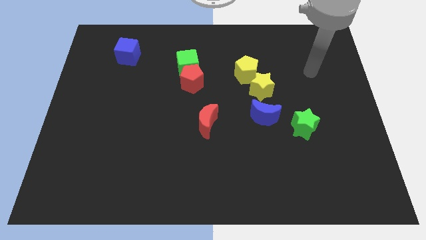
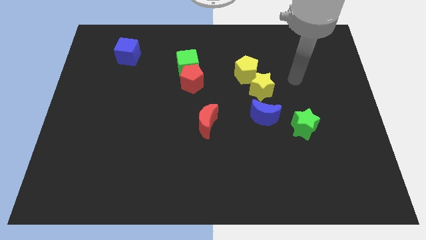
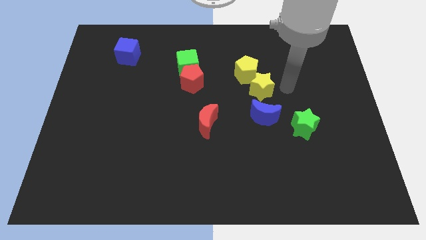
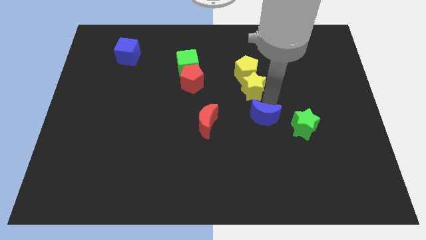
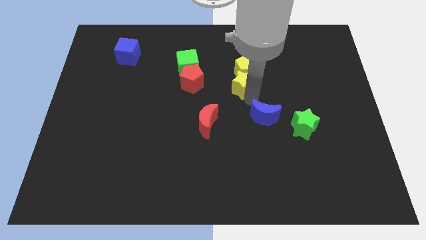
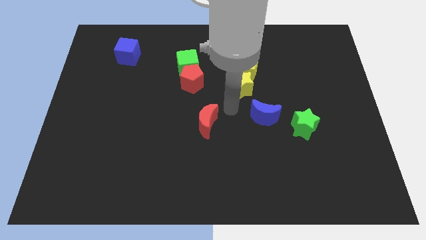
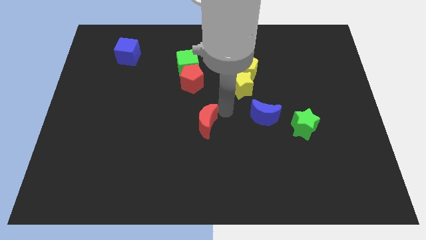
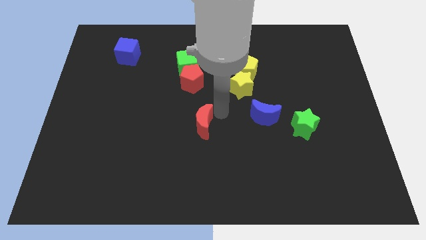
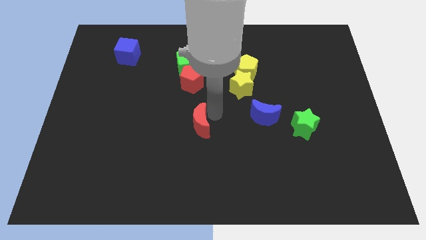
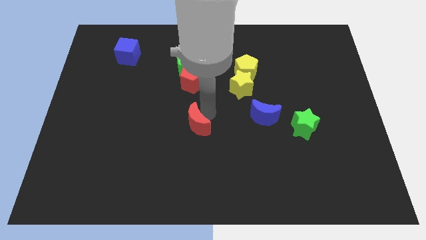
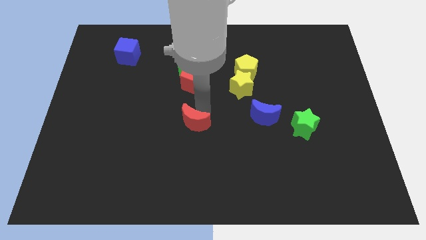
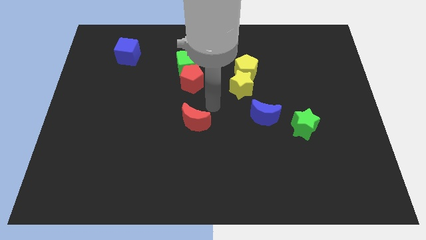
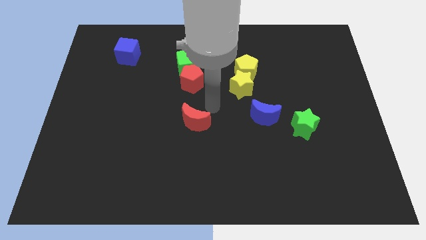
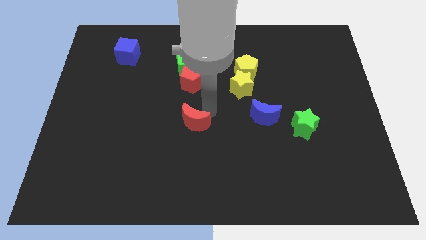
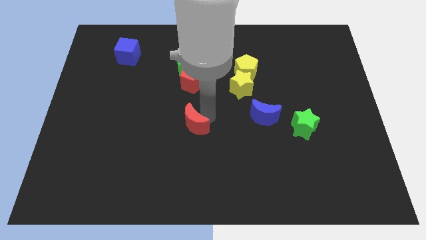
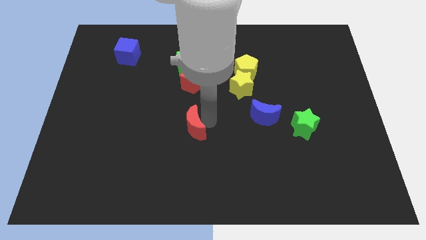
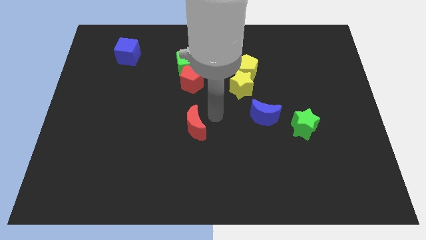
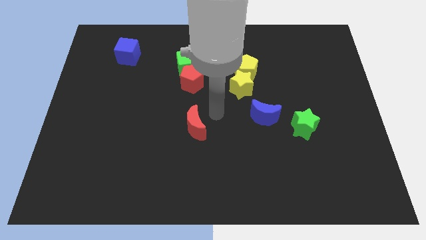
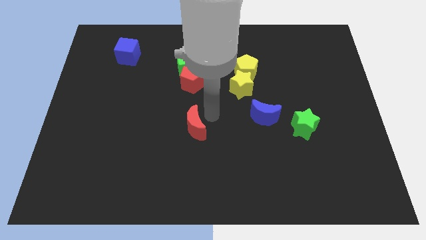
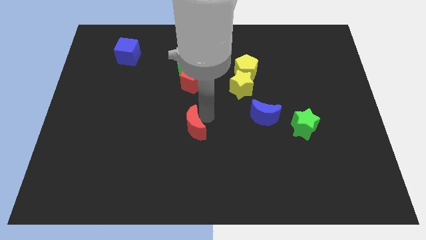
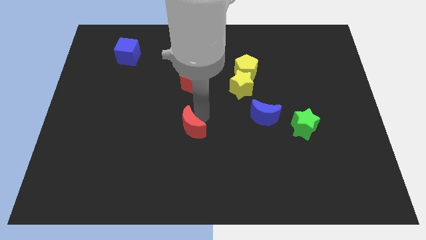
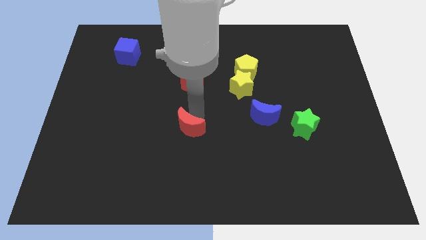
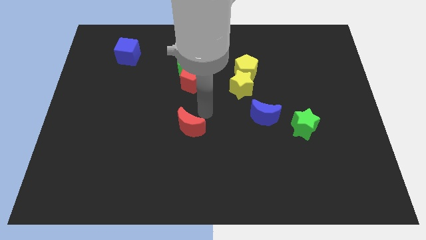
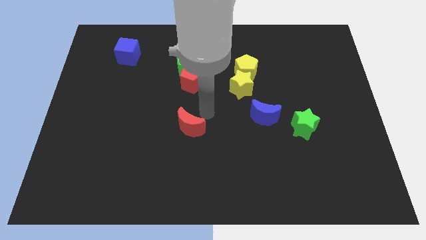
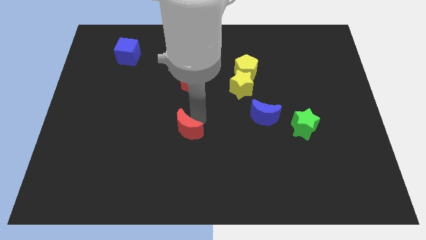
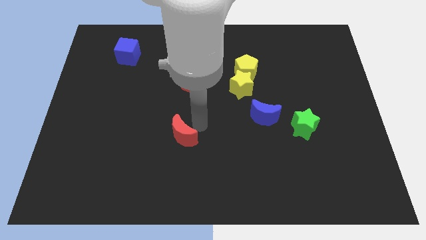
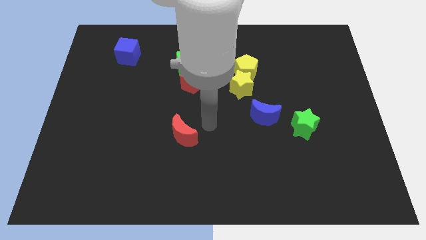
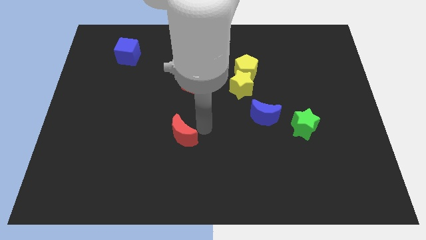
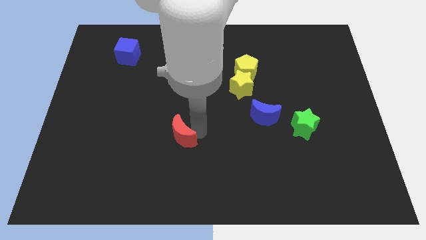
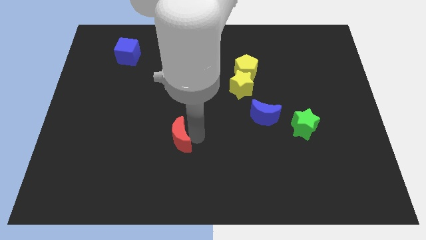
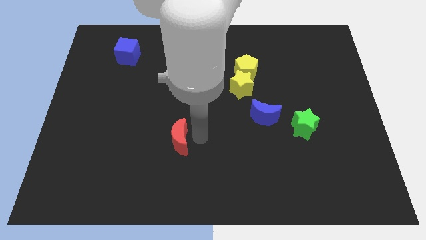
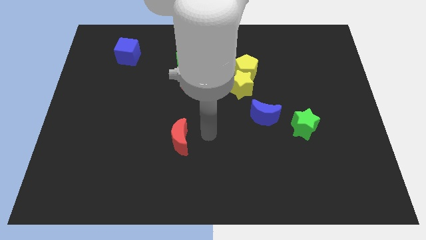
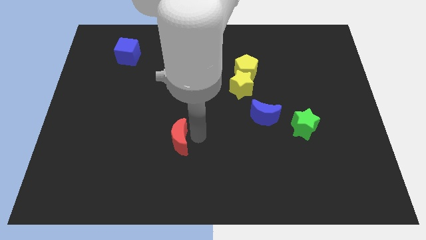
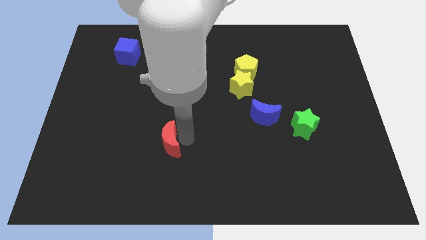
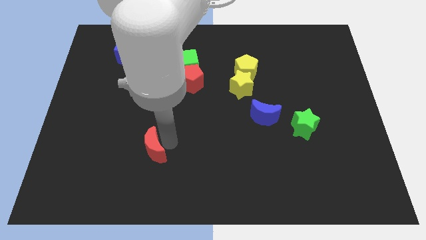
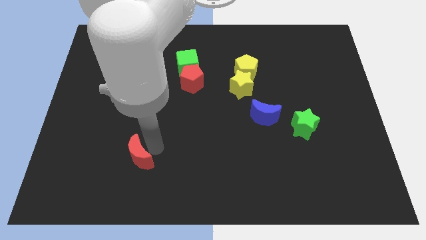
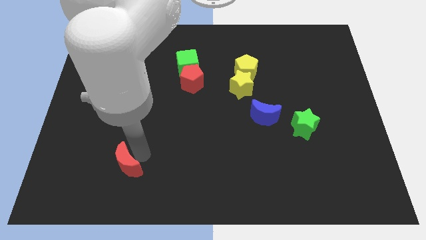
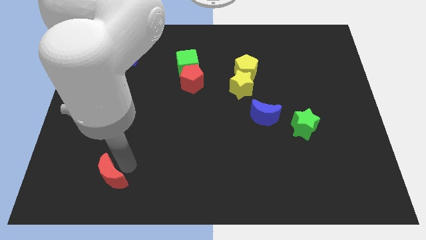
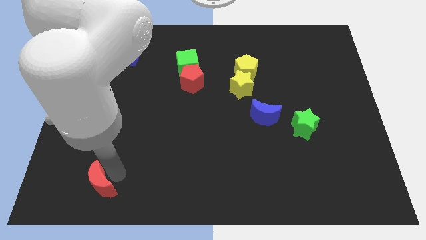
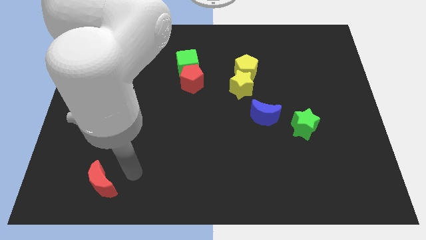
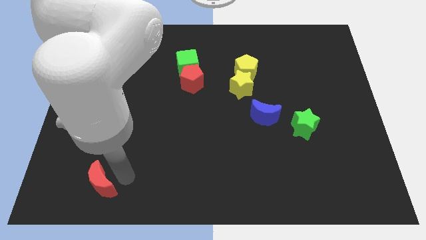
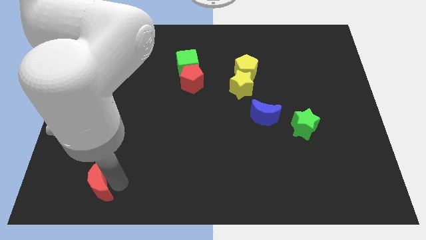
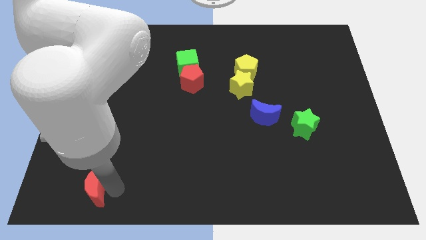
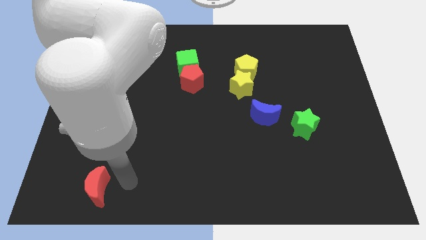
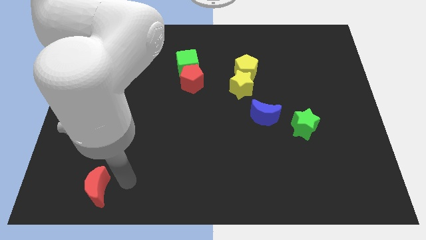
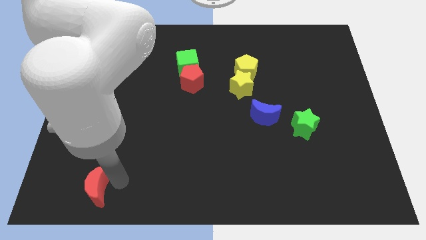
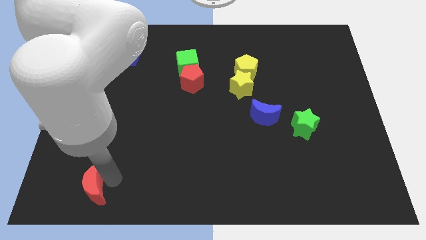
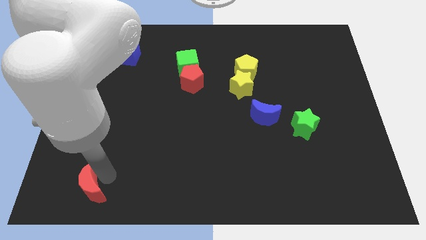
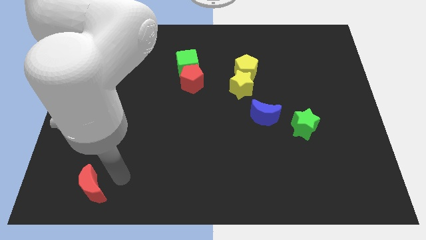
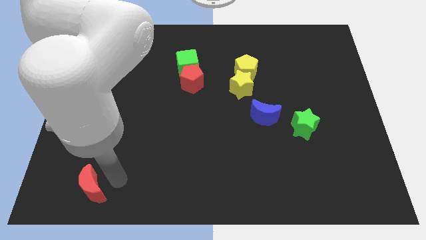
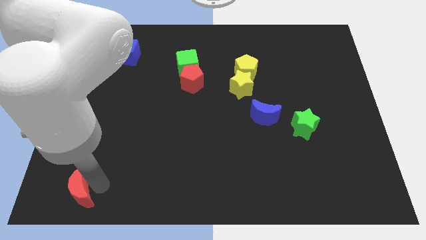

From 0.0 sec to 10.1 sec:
move the red moon to the bottom left of the board

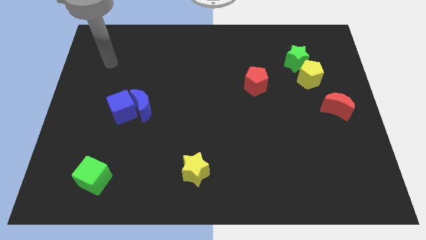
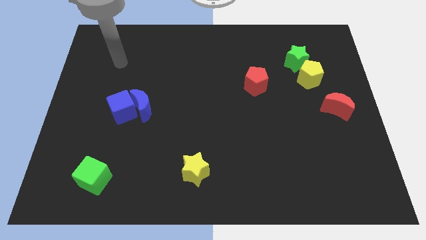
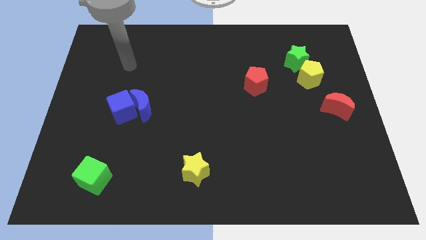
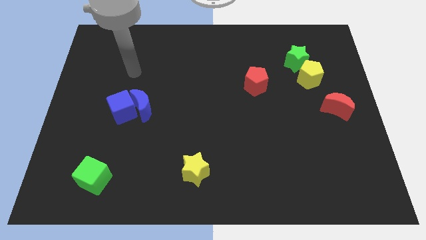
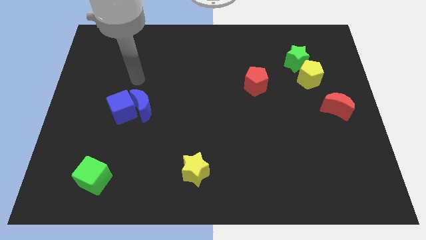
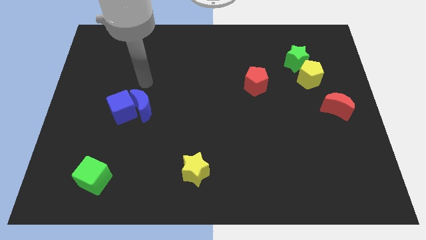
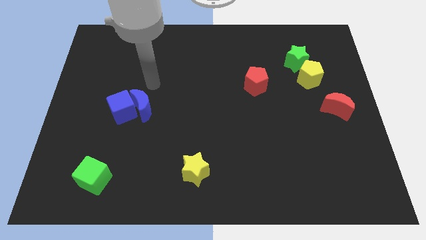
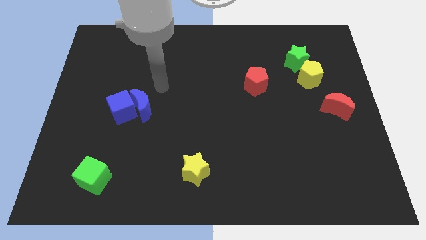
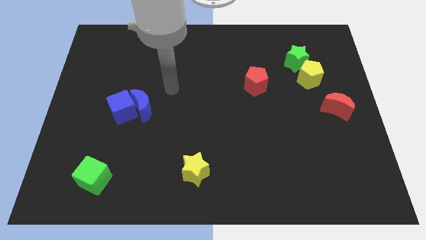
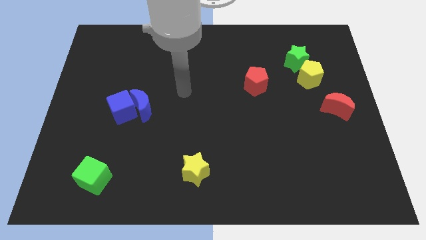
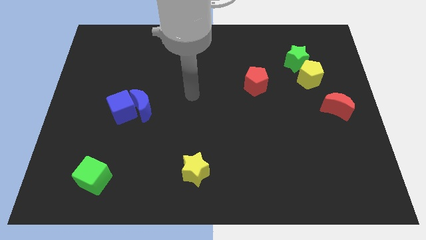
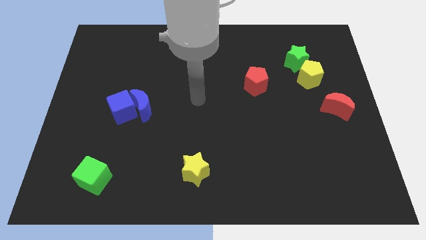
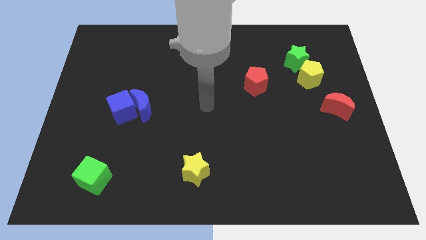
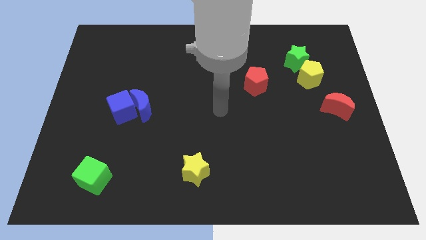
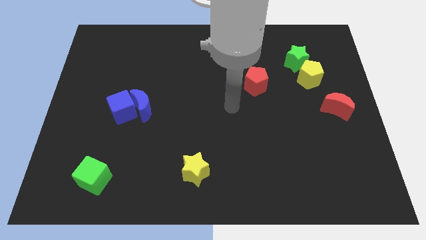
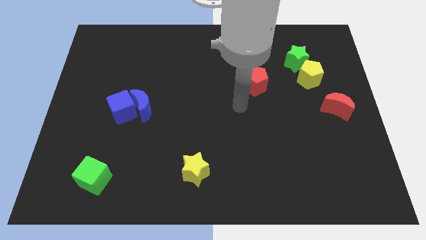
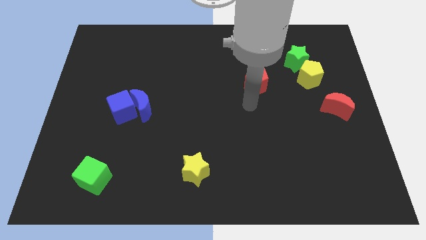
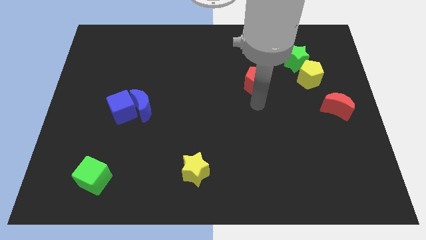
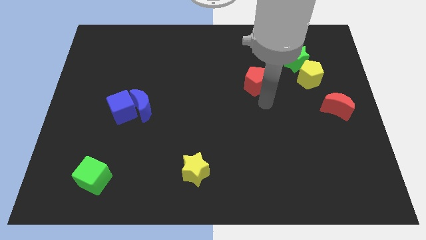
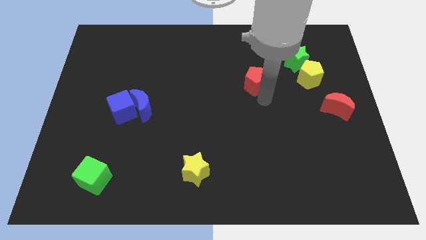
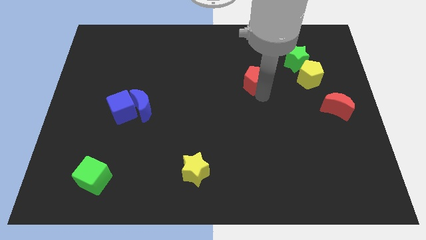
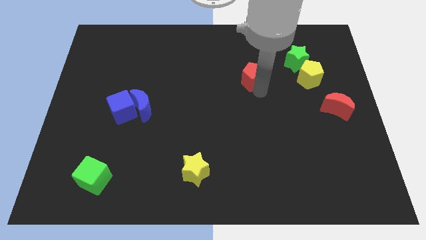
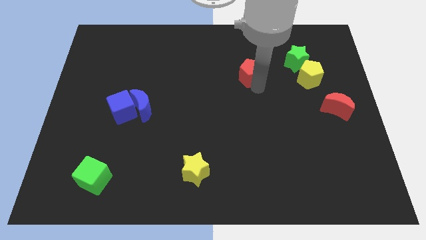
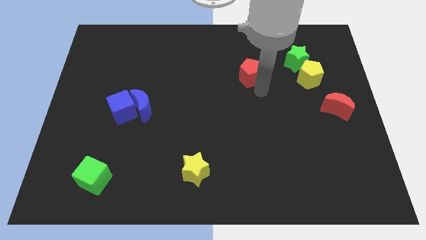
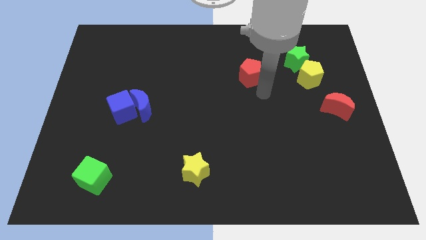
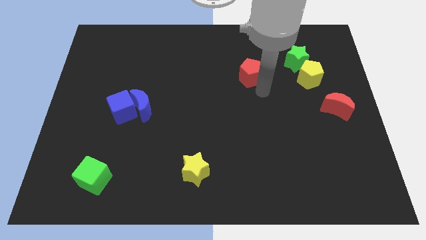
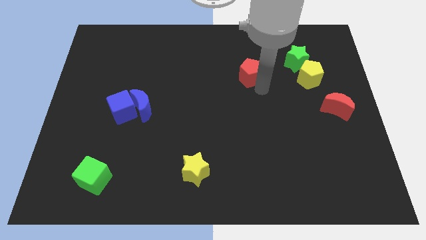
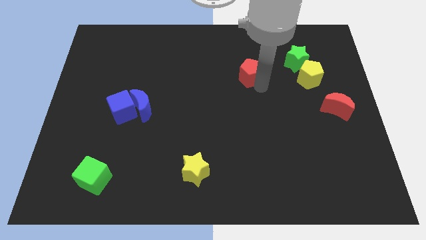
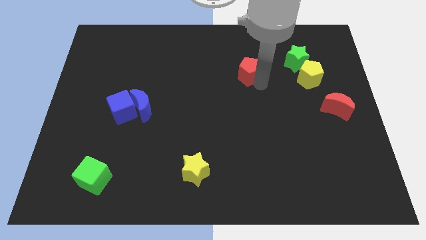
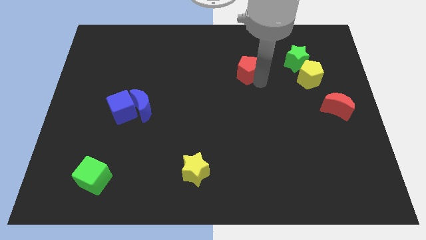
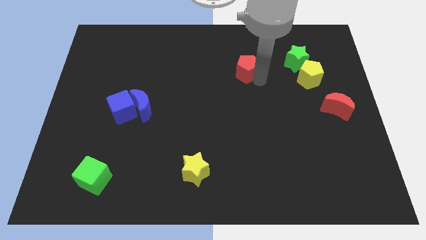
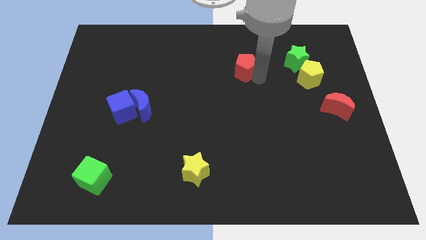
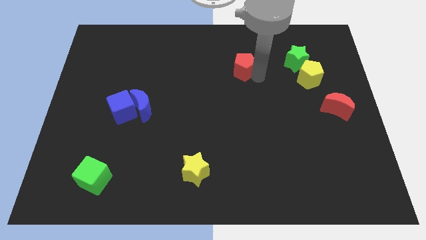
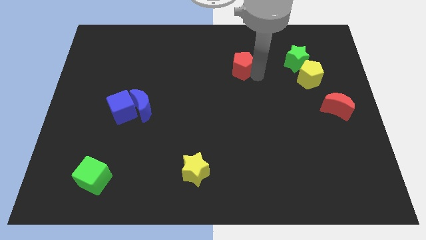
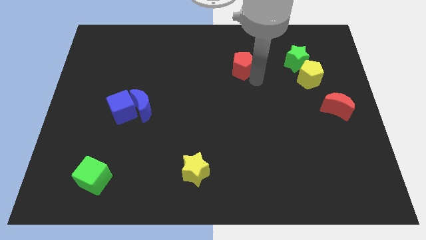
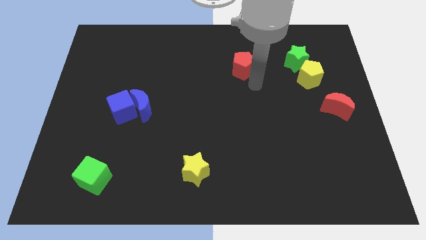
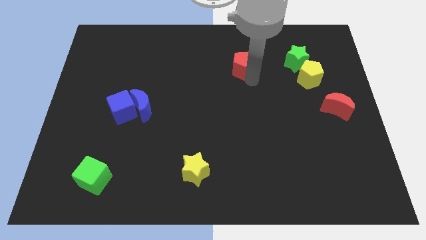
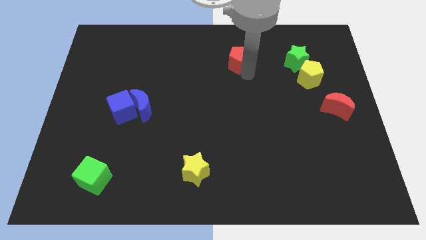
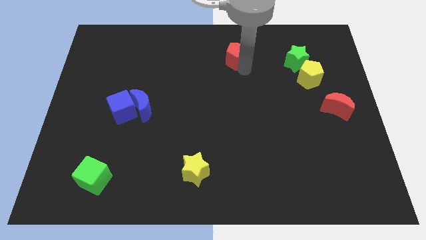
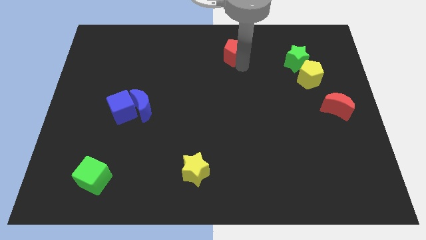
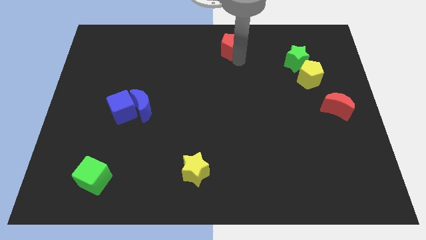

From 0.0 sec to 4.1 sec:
put the red pentagon to the towards your base
